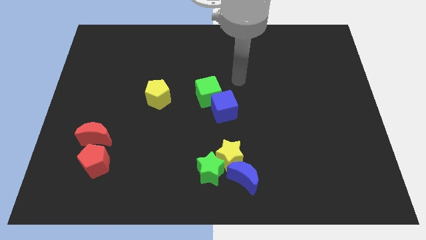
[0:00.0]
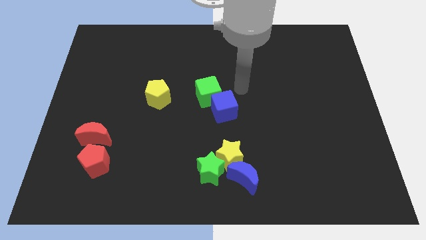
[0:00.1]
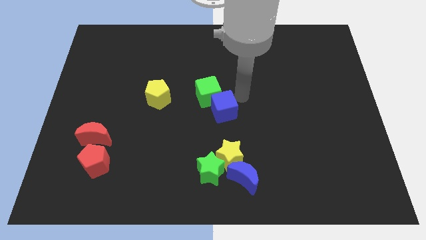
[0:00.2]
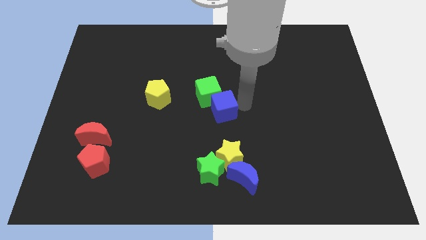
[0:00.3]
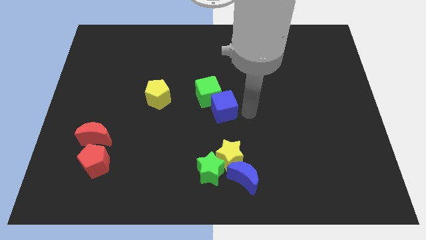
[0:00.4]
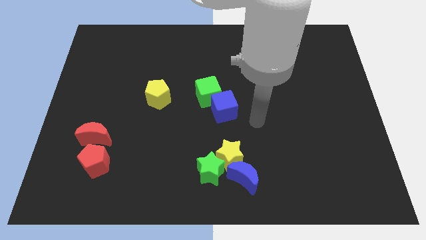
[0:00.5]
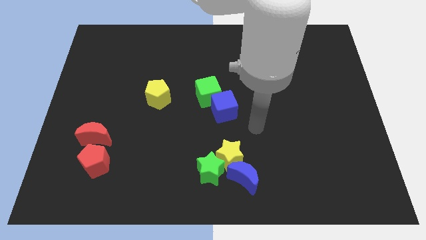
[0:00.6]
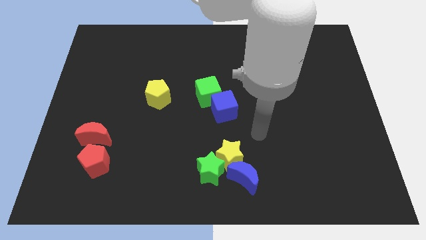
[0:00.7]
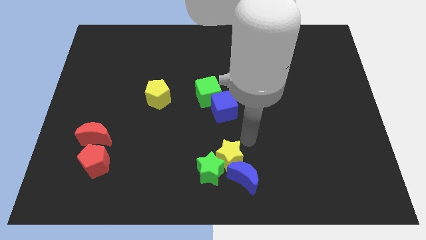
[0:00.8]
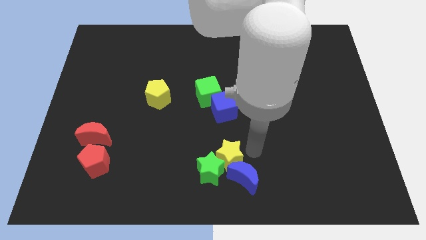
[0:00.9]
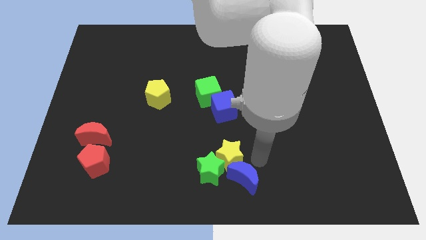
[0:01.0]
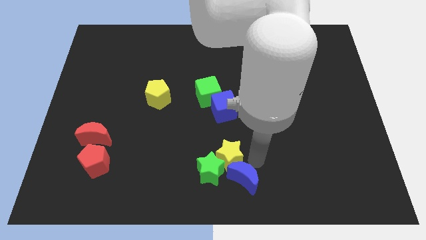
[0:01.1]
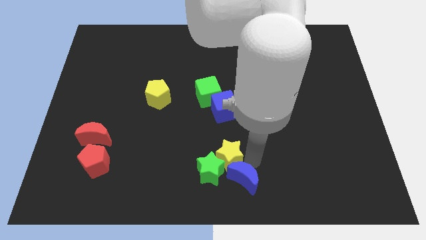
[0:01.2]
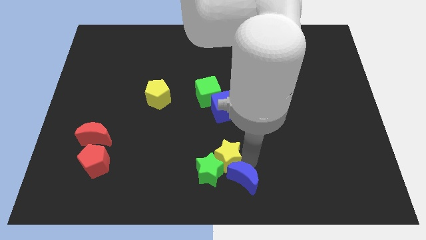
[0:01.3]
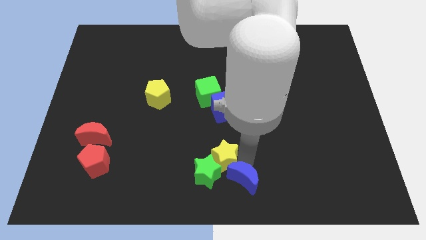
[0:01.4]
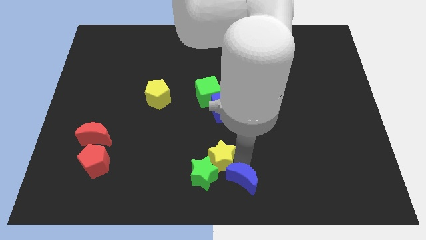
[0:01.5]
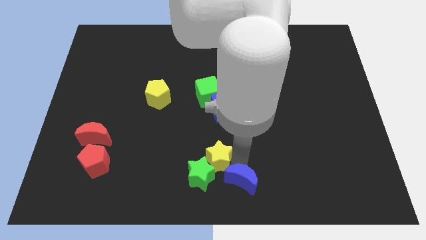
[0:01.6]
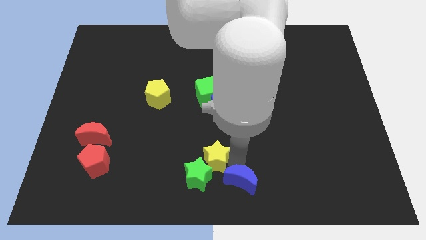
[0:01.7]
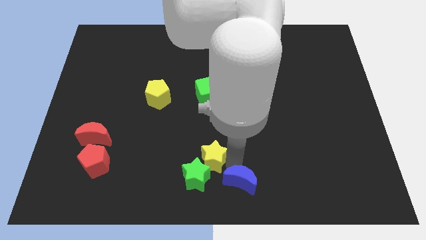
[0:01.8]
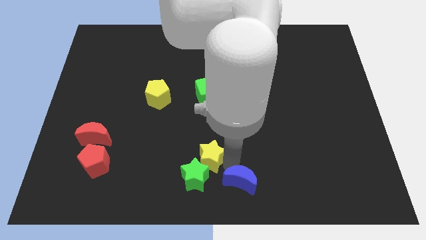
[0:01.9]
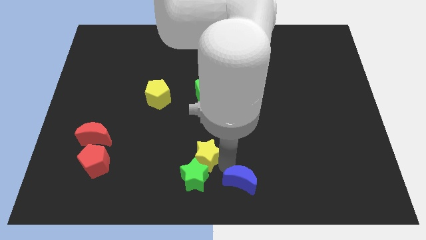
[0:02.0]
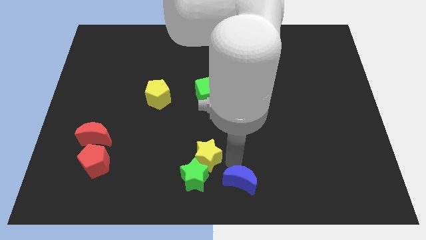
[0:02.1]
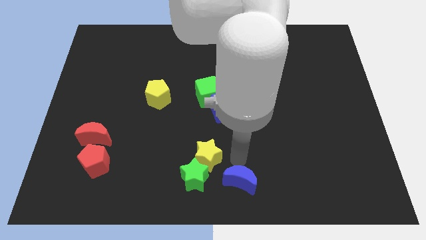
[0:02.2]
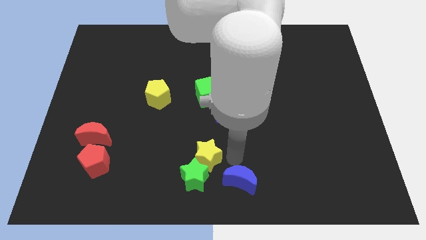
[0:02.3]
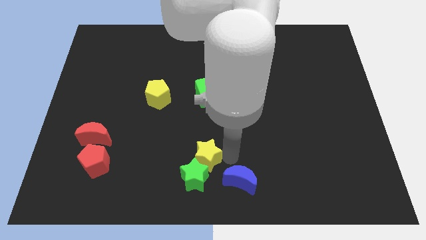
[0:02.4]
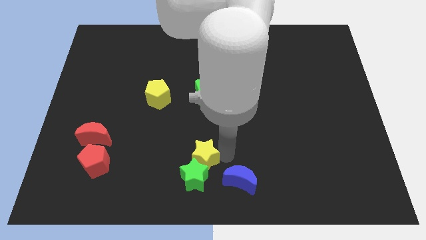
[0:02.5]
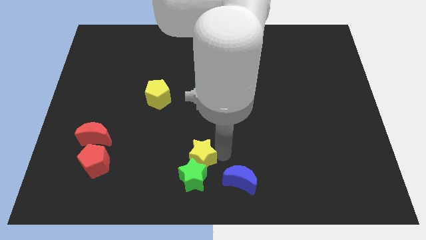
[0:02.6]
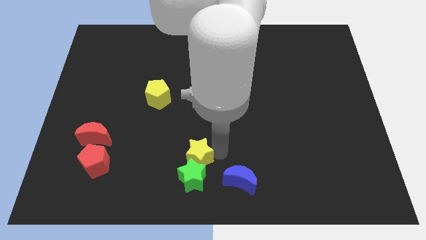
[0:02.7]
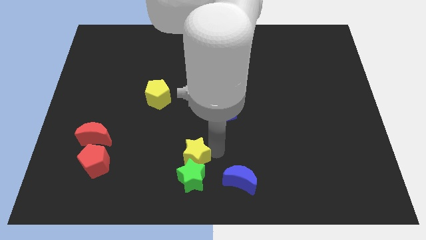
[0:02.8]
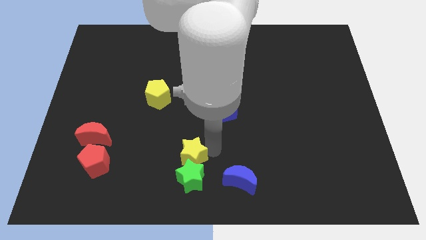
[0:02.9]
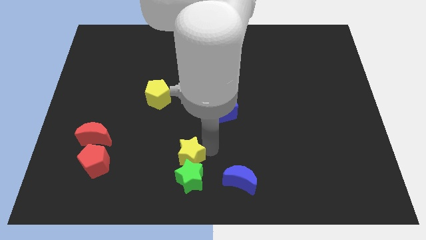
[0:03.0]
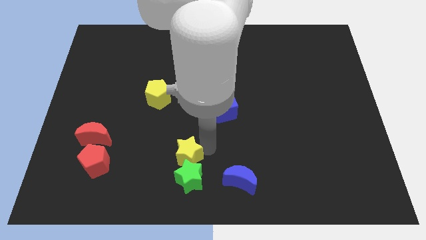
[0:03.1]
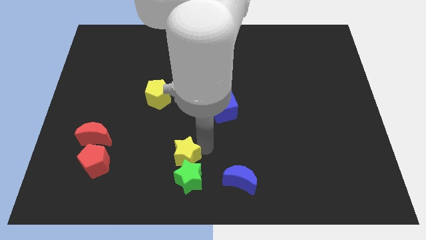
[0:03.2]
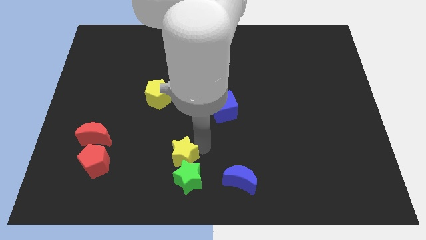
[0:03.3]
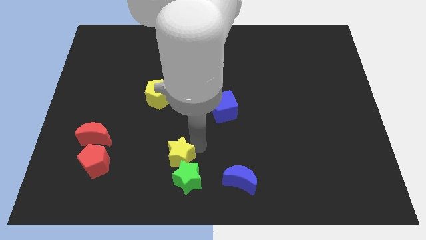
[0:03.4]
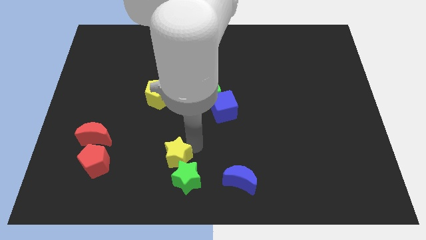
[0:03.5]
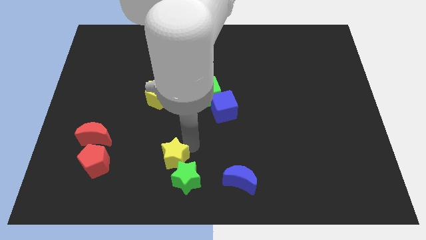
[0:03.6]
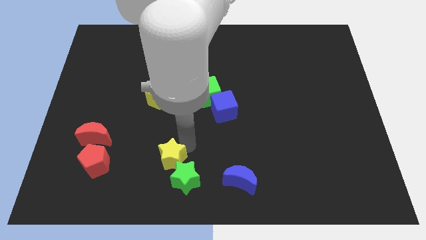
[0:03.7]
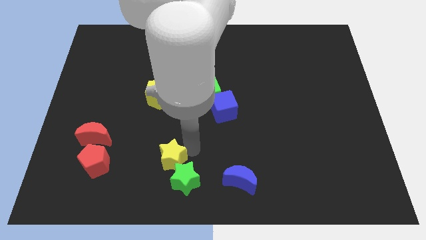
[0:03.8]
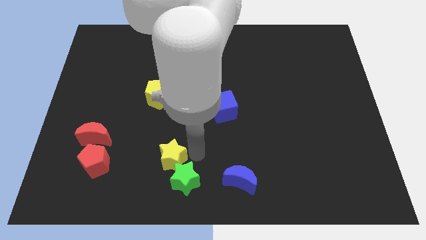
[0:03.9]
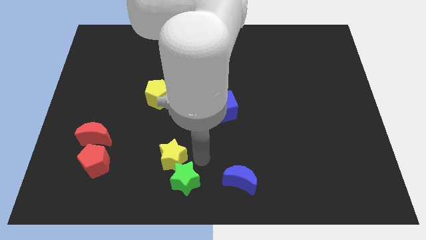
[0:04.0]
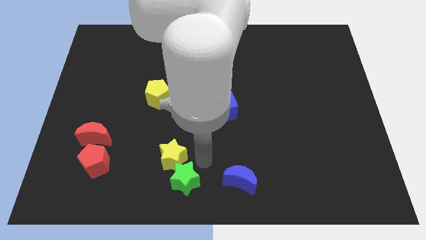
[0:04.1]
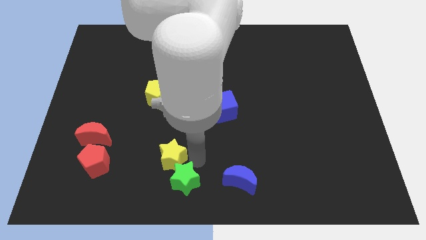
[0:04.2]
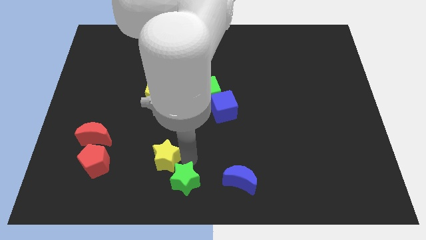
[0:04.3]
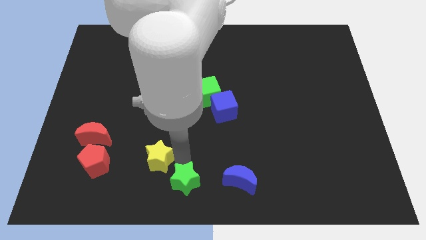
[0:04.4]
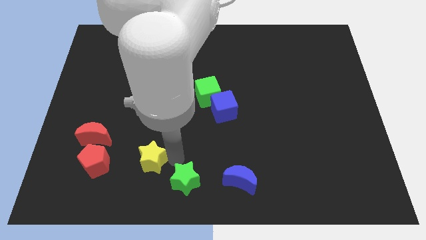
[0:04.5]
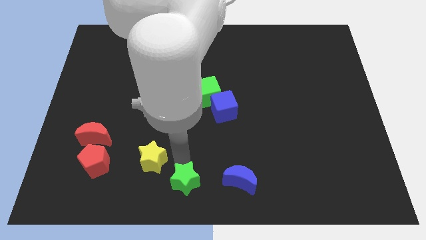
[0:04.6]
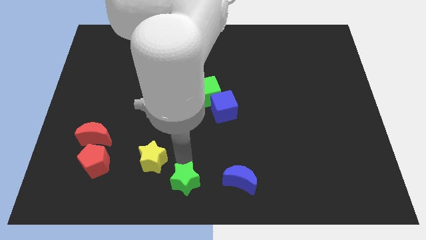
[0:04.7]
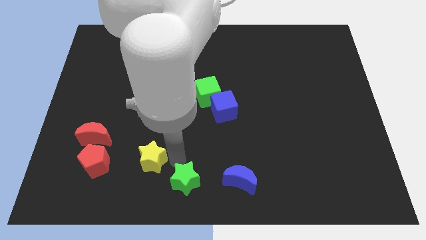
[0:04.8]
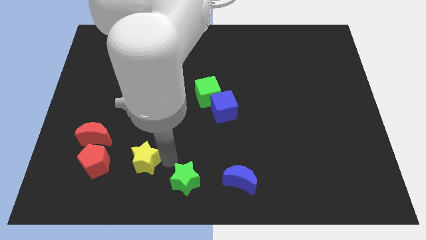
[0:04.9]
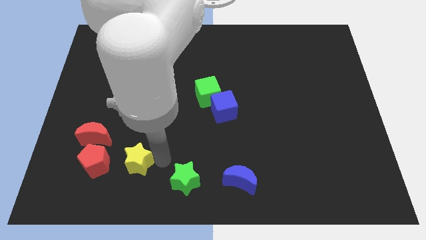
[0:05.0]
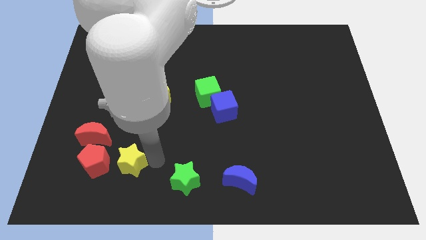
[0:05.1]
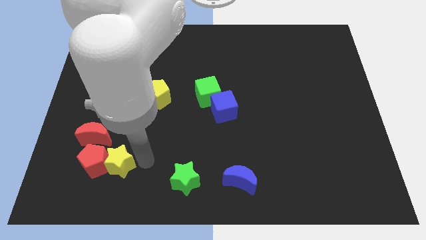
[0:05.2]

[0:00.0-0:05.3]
put the yellow star towards the red pentagon

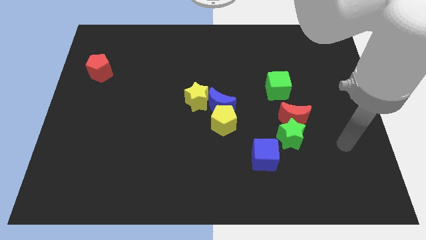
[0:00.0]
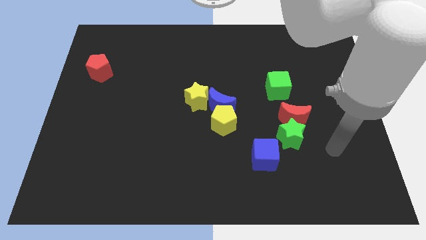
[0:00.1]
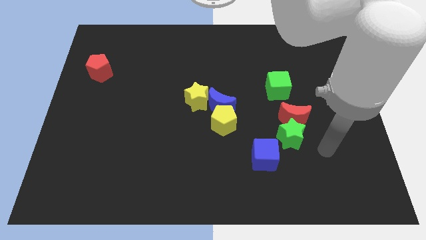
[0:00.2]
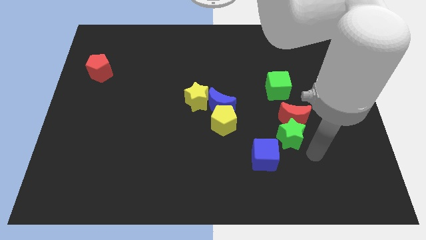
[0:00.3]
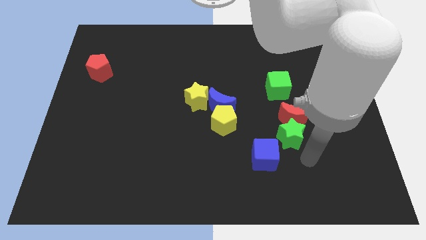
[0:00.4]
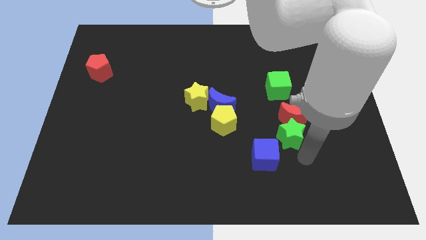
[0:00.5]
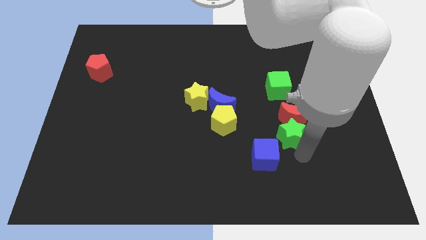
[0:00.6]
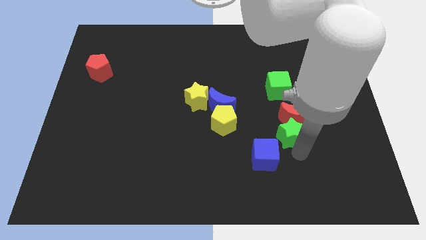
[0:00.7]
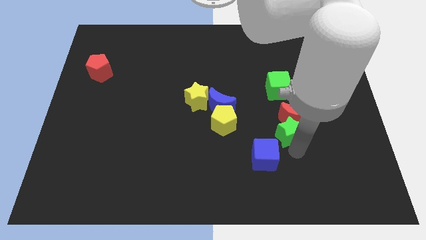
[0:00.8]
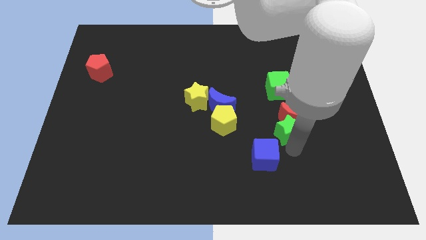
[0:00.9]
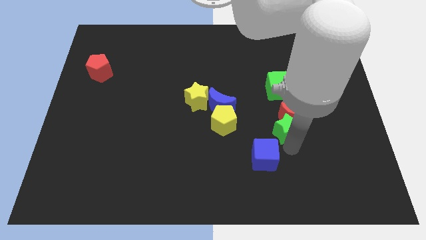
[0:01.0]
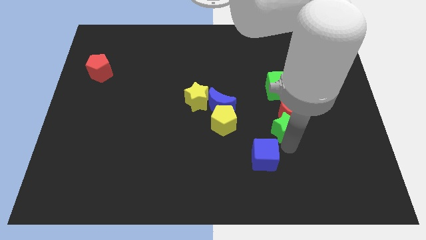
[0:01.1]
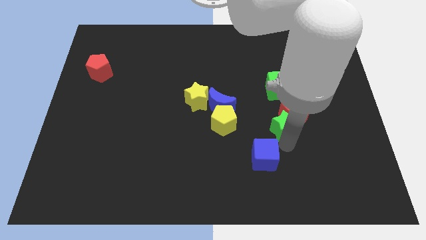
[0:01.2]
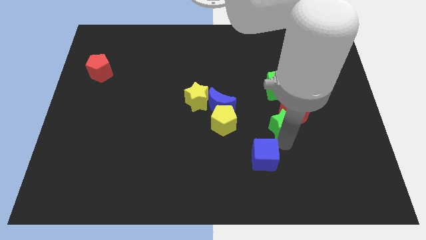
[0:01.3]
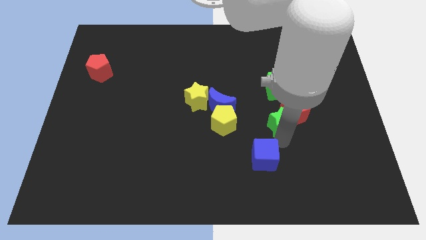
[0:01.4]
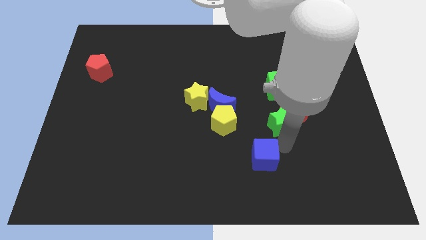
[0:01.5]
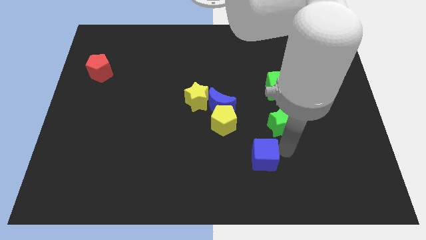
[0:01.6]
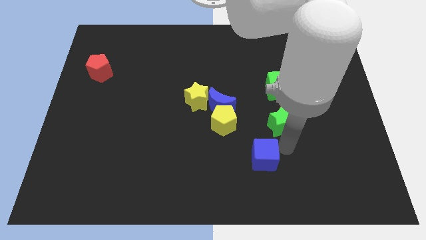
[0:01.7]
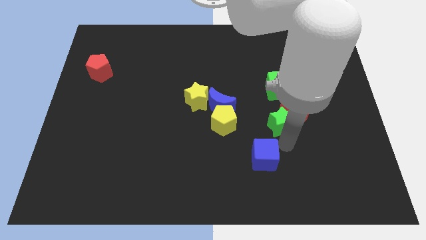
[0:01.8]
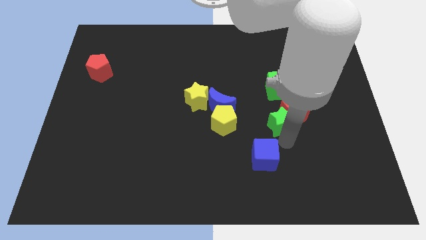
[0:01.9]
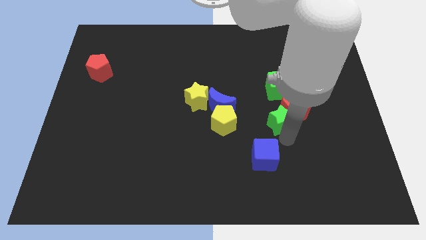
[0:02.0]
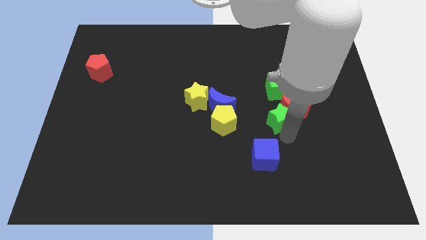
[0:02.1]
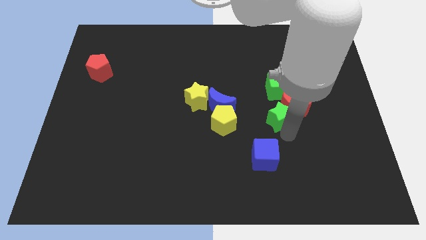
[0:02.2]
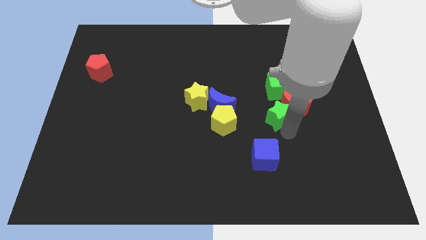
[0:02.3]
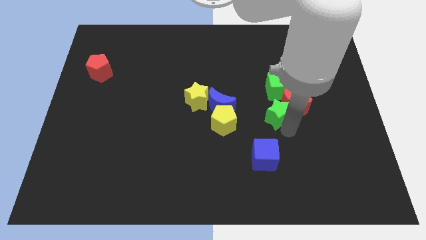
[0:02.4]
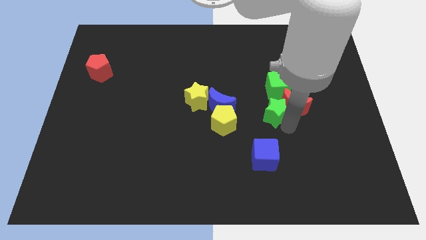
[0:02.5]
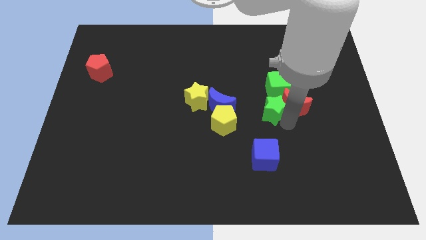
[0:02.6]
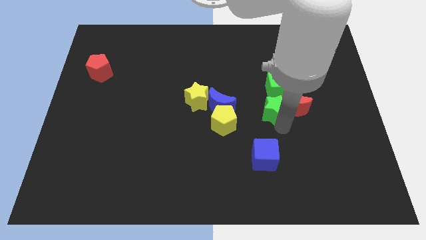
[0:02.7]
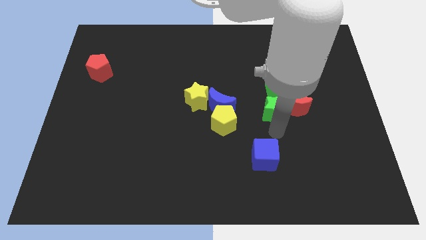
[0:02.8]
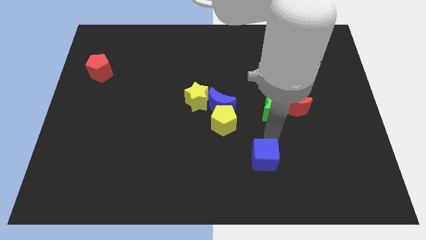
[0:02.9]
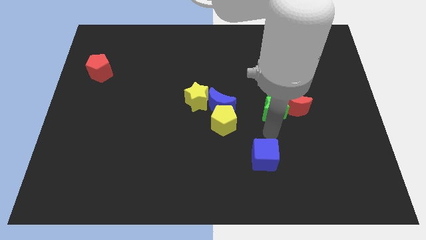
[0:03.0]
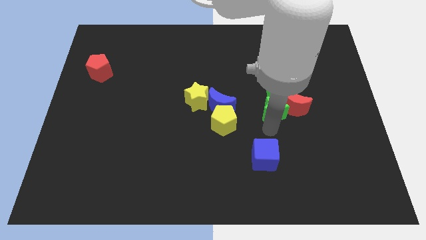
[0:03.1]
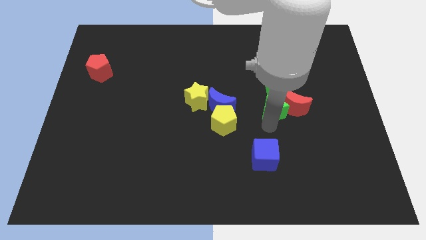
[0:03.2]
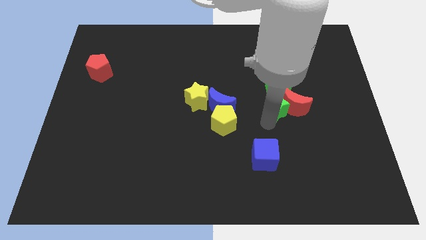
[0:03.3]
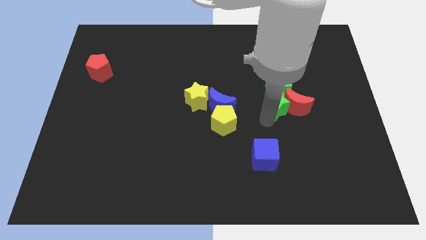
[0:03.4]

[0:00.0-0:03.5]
slide the green star close to the green cube
